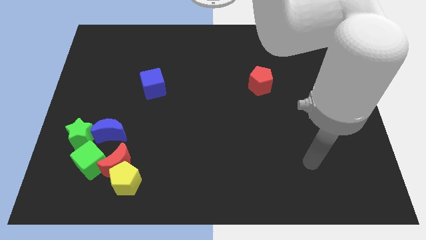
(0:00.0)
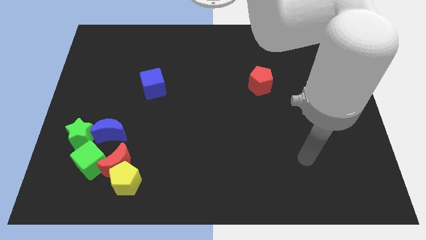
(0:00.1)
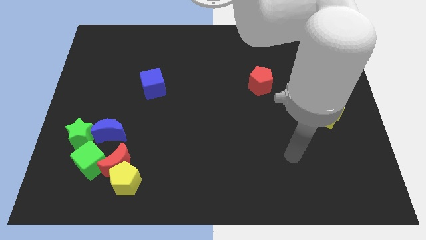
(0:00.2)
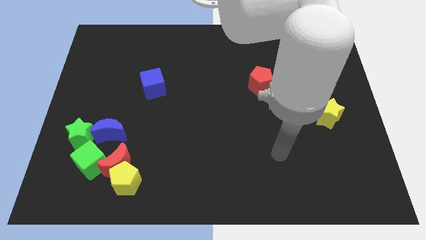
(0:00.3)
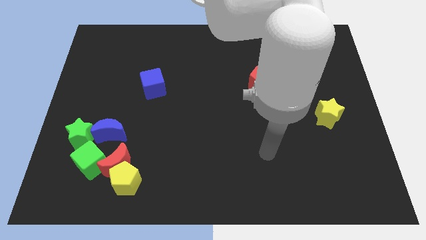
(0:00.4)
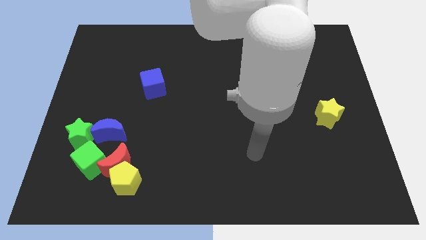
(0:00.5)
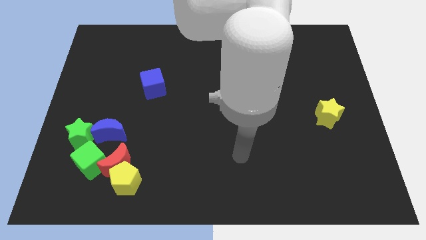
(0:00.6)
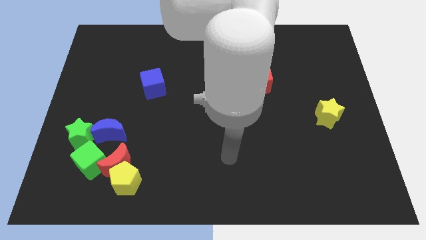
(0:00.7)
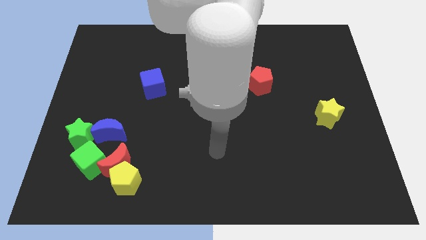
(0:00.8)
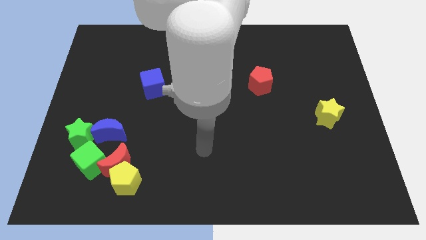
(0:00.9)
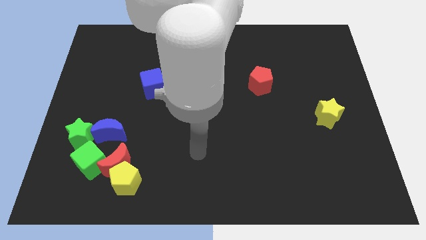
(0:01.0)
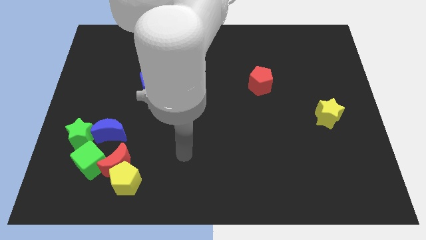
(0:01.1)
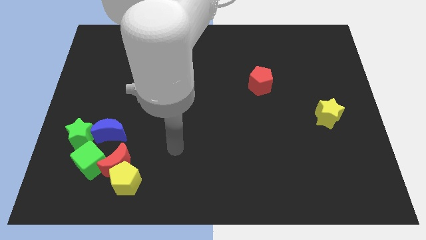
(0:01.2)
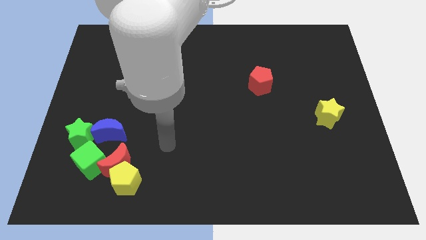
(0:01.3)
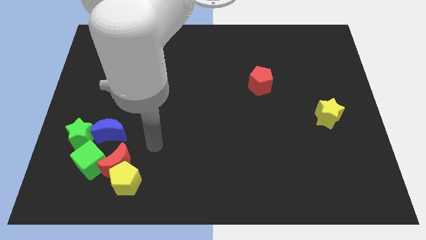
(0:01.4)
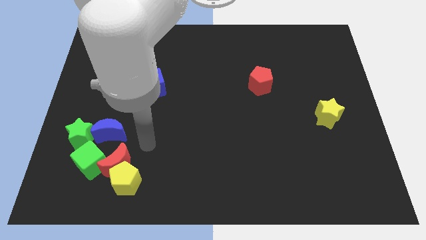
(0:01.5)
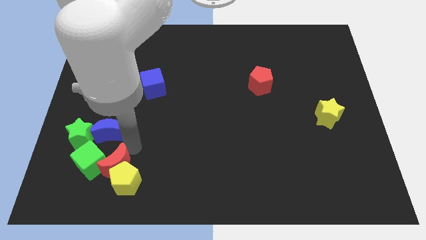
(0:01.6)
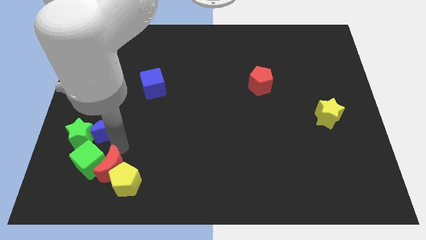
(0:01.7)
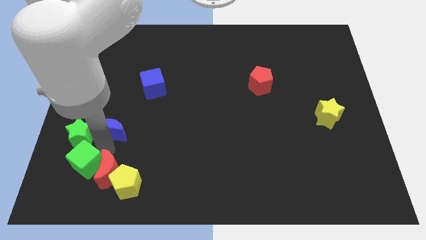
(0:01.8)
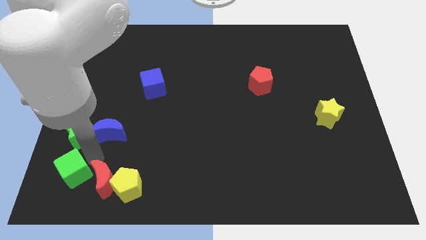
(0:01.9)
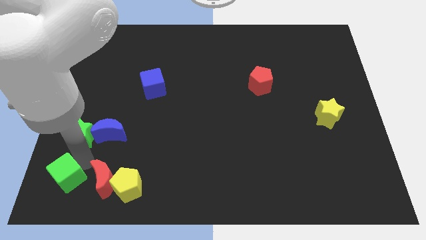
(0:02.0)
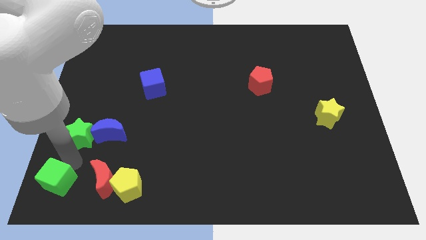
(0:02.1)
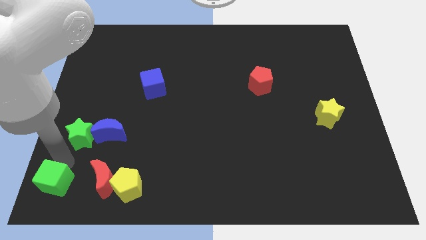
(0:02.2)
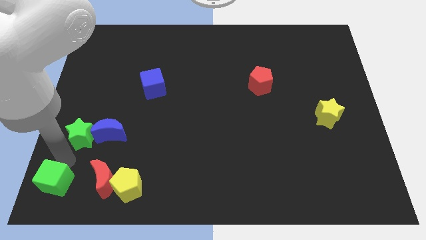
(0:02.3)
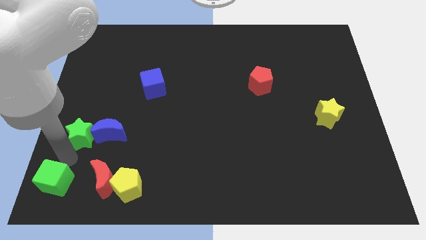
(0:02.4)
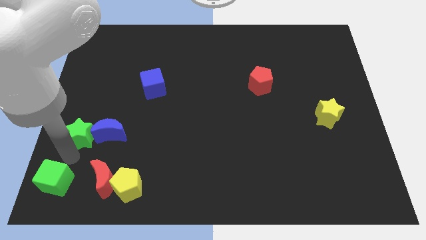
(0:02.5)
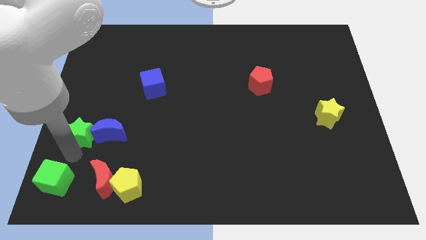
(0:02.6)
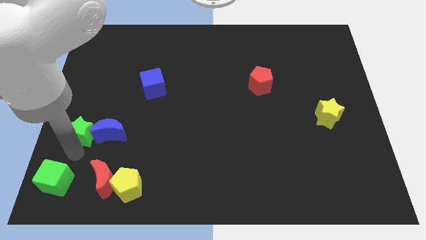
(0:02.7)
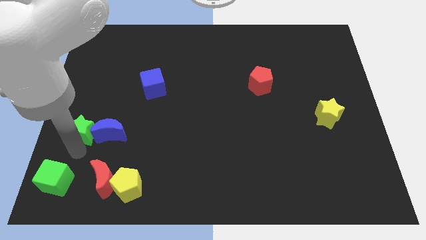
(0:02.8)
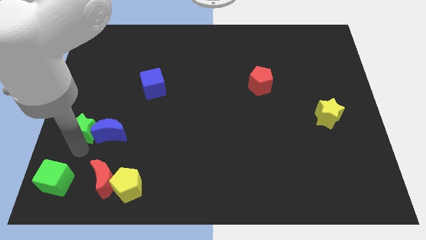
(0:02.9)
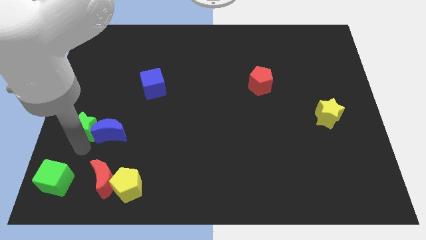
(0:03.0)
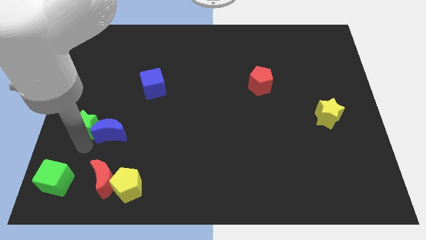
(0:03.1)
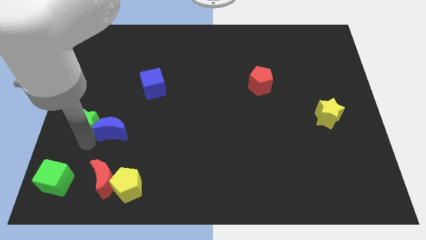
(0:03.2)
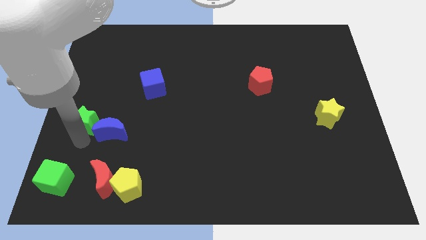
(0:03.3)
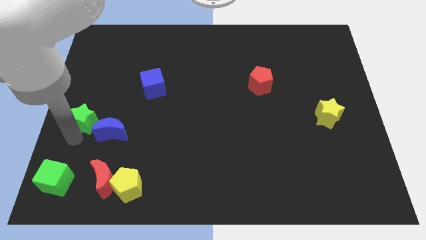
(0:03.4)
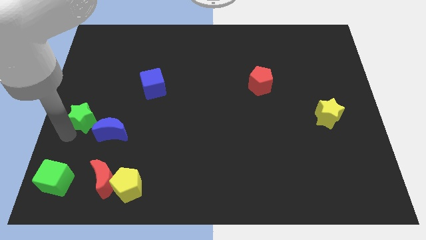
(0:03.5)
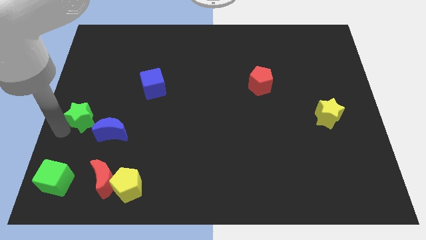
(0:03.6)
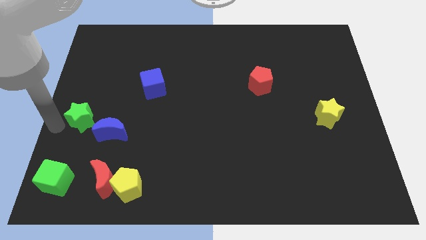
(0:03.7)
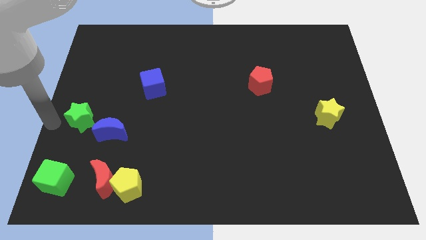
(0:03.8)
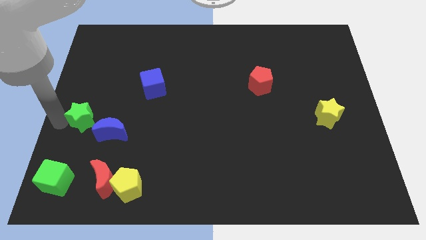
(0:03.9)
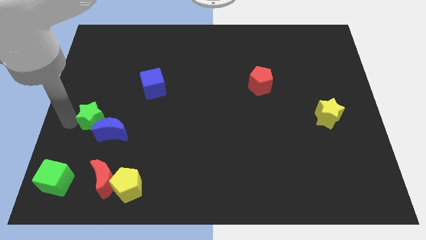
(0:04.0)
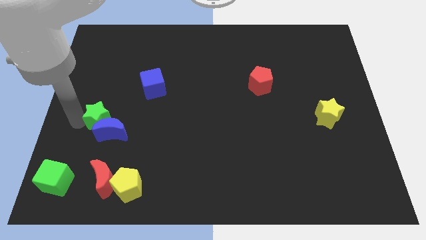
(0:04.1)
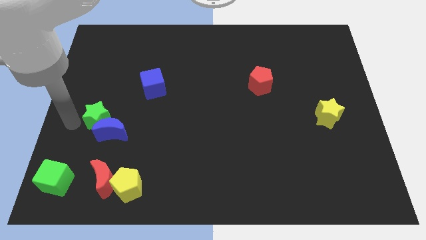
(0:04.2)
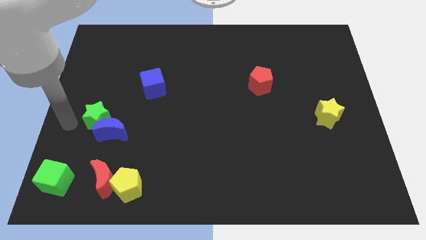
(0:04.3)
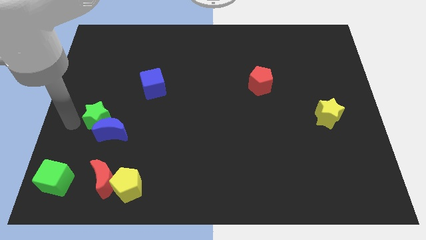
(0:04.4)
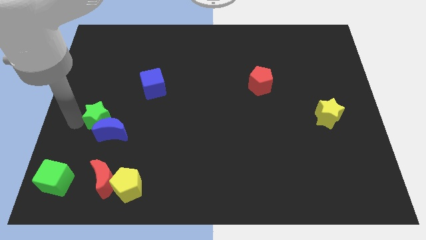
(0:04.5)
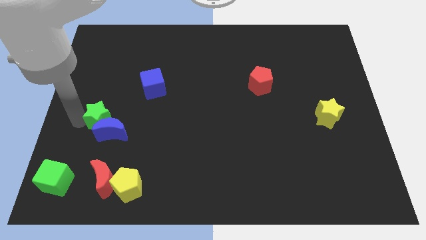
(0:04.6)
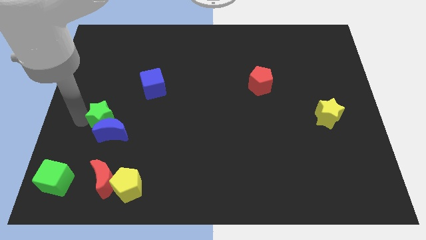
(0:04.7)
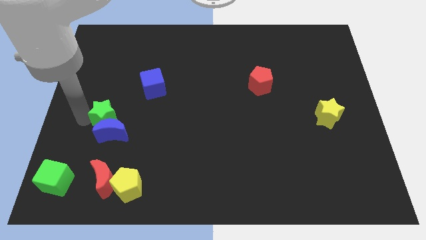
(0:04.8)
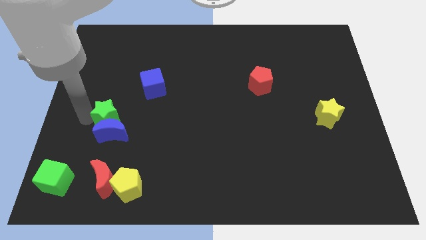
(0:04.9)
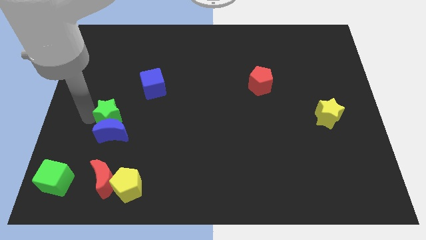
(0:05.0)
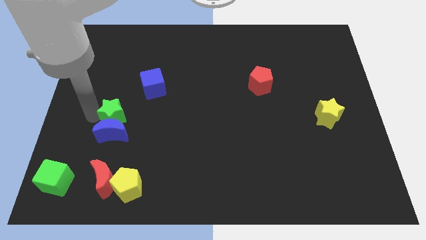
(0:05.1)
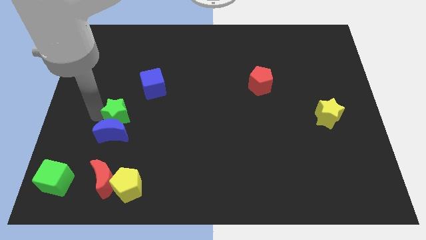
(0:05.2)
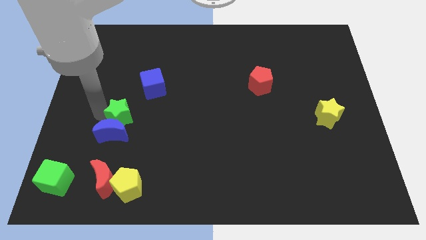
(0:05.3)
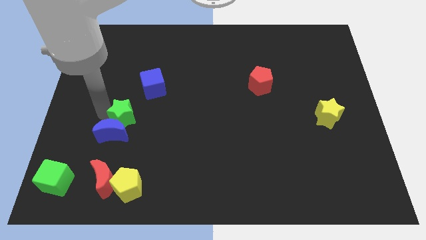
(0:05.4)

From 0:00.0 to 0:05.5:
slightly slide the green star right

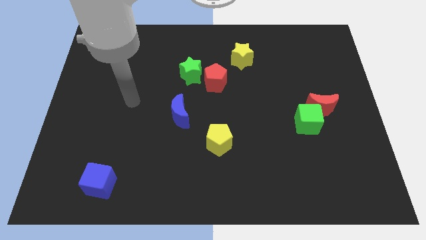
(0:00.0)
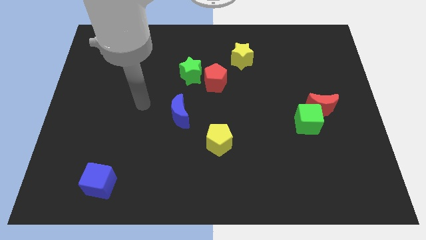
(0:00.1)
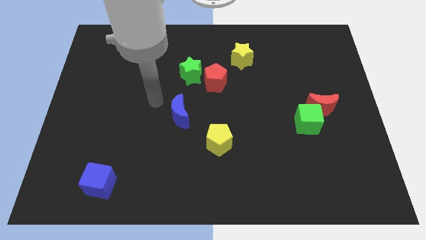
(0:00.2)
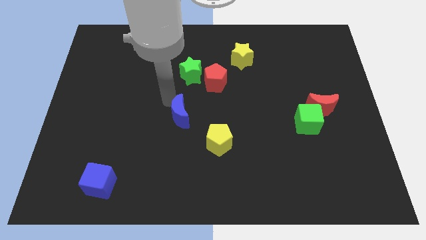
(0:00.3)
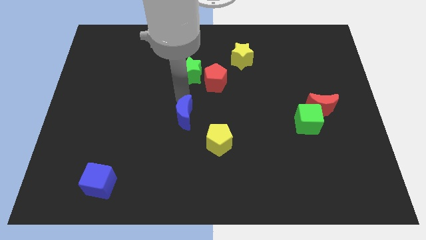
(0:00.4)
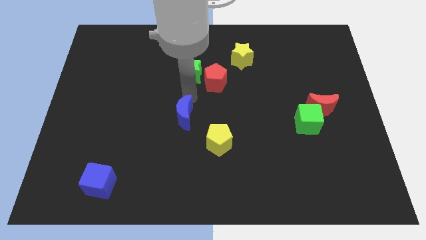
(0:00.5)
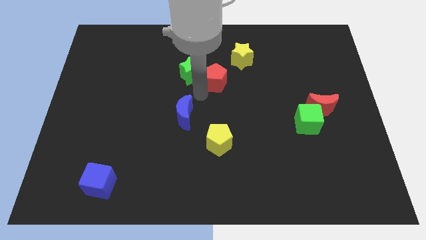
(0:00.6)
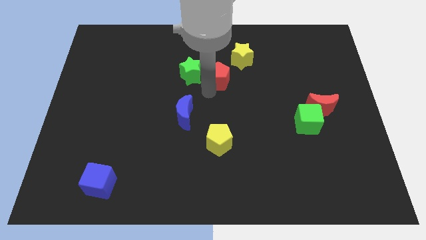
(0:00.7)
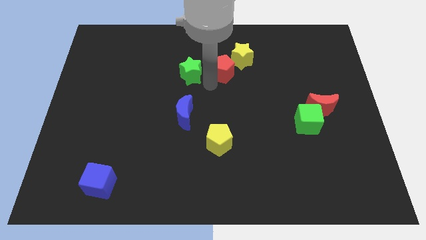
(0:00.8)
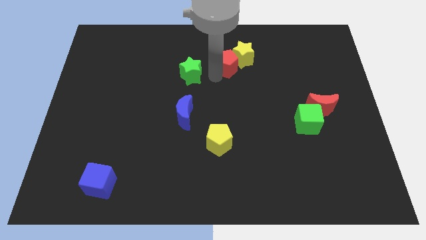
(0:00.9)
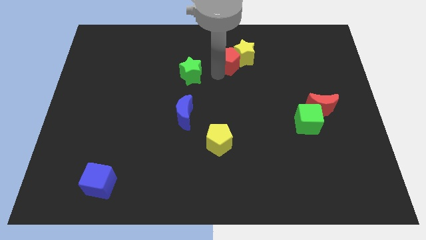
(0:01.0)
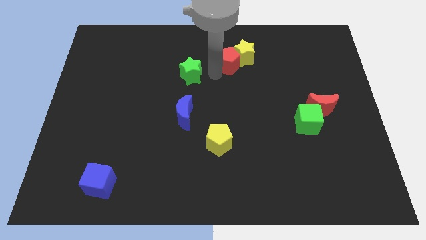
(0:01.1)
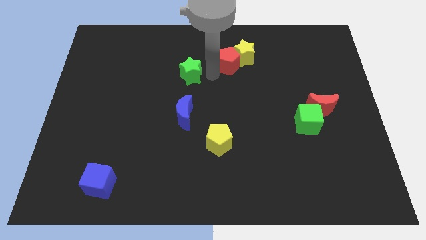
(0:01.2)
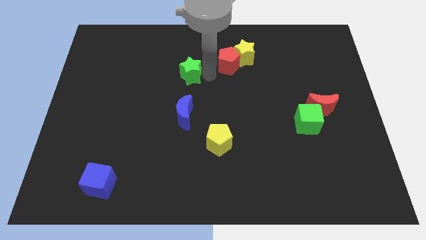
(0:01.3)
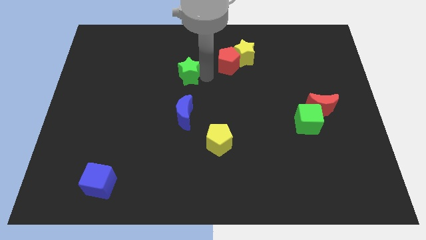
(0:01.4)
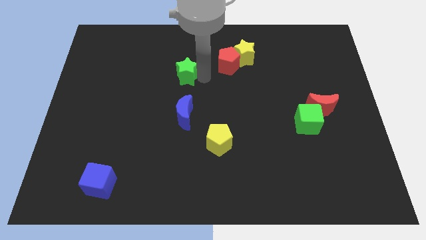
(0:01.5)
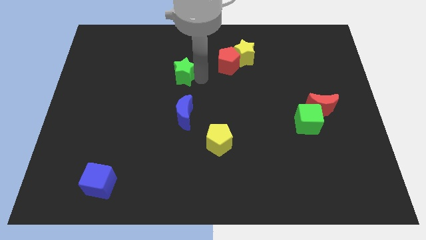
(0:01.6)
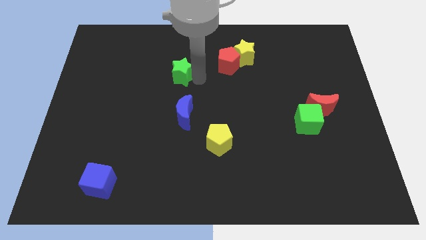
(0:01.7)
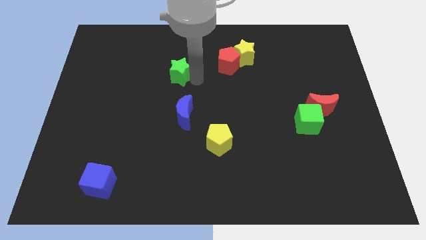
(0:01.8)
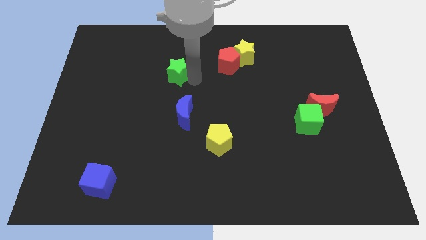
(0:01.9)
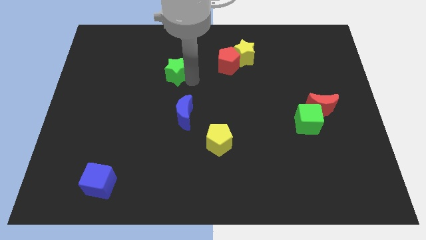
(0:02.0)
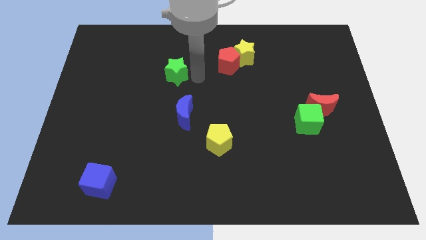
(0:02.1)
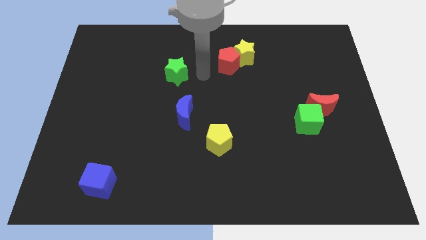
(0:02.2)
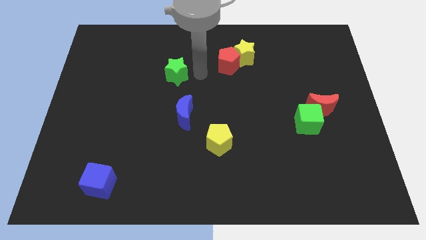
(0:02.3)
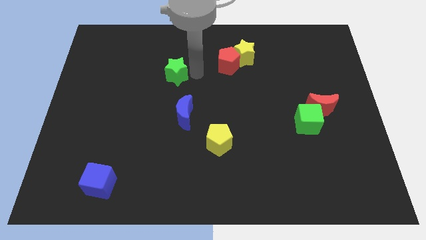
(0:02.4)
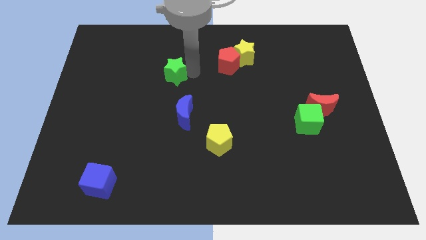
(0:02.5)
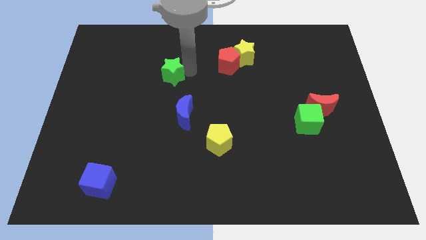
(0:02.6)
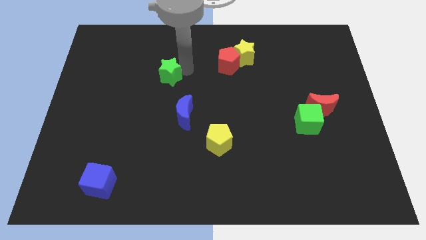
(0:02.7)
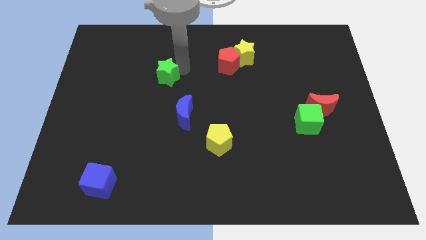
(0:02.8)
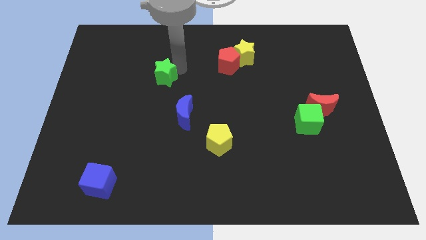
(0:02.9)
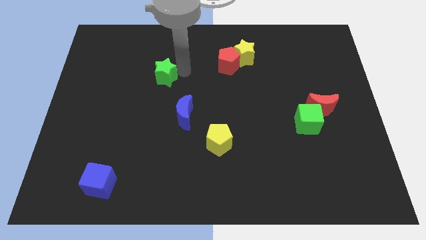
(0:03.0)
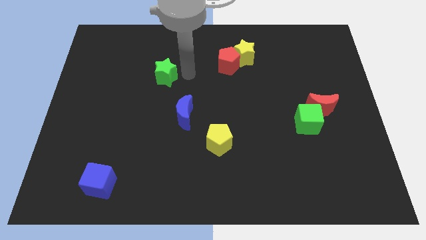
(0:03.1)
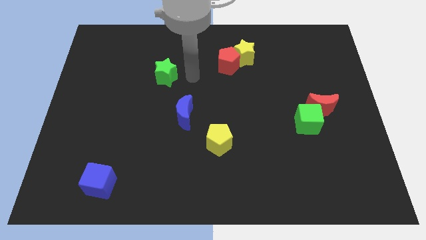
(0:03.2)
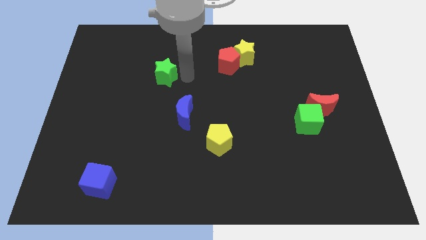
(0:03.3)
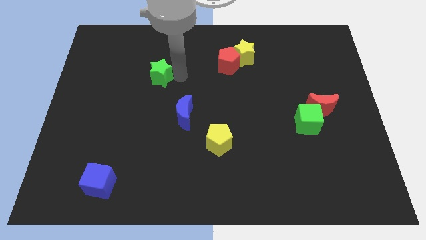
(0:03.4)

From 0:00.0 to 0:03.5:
slightly move the green star to the left
